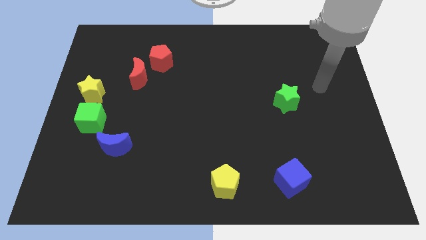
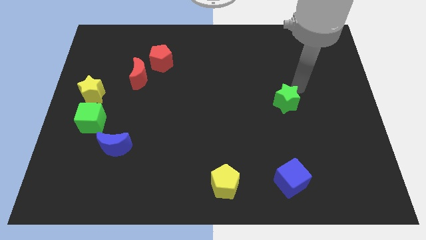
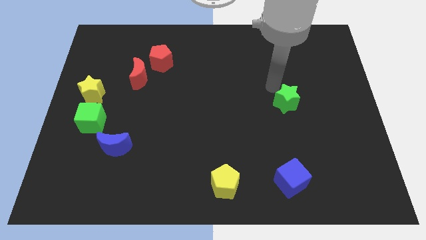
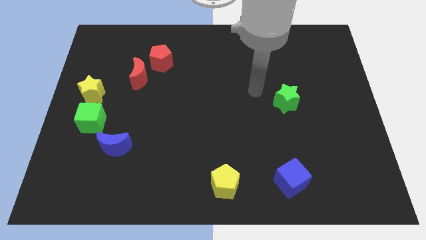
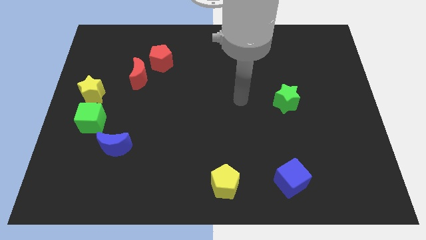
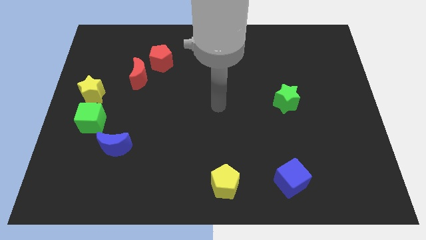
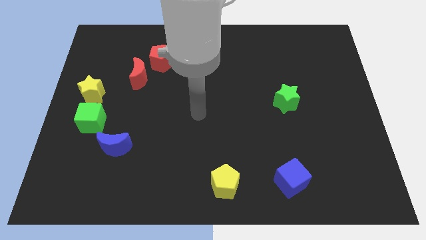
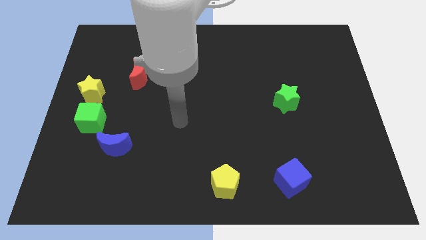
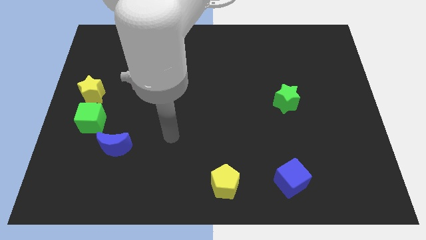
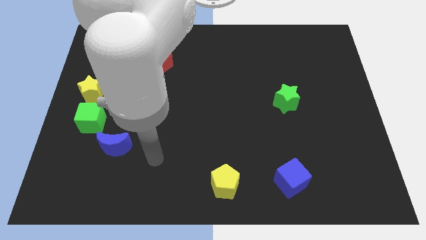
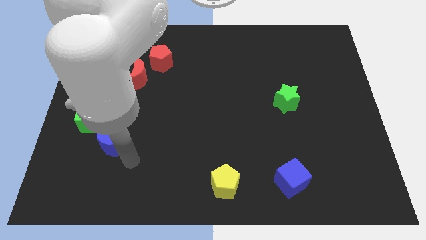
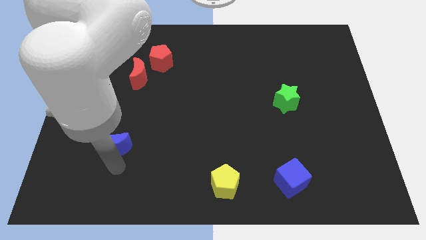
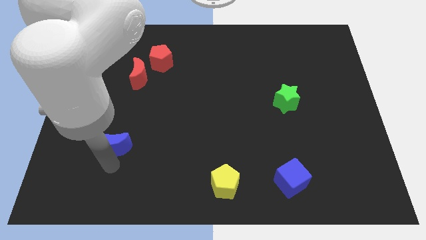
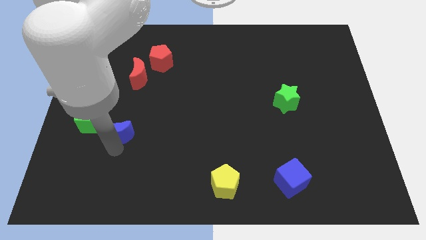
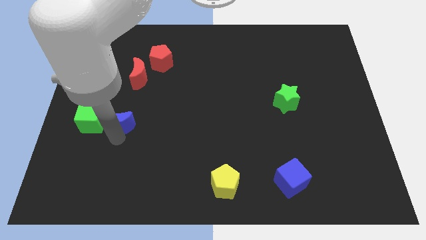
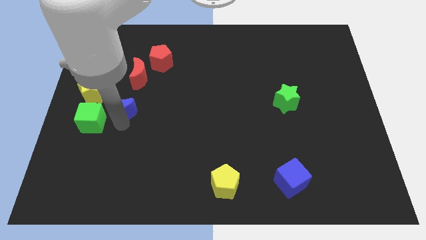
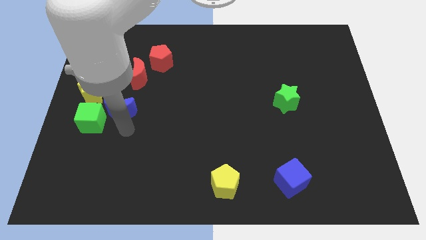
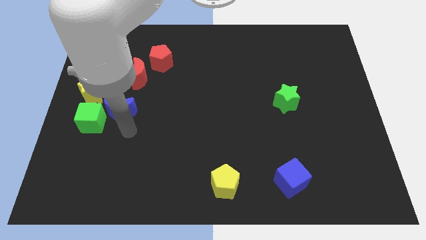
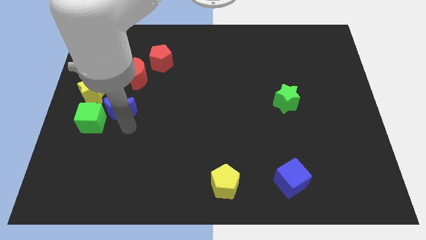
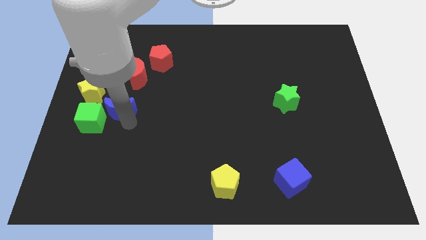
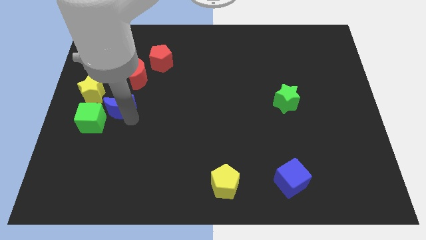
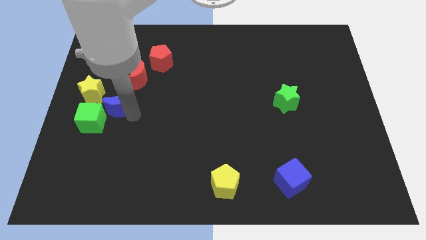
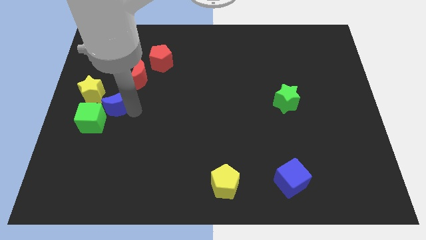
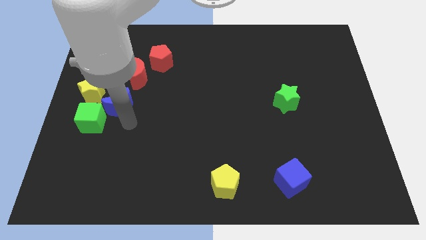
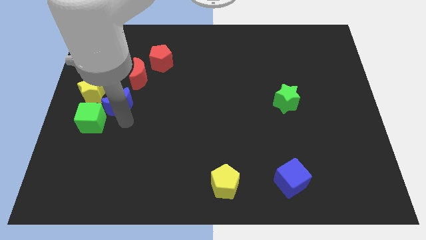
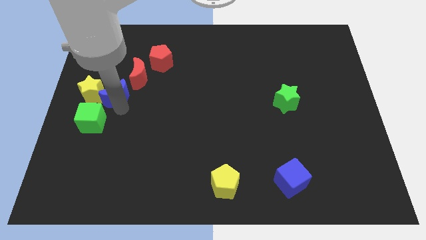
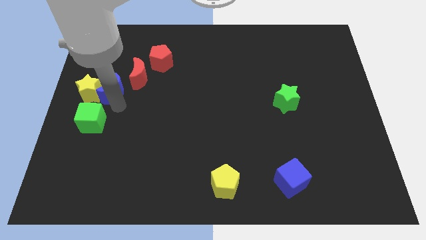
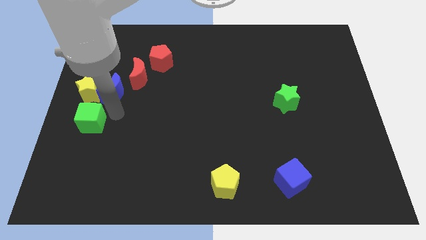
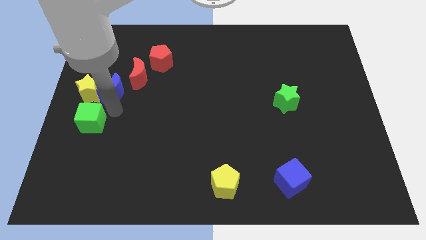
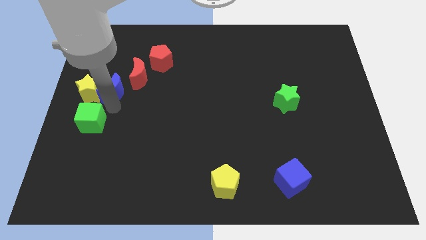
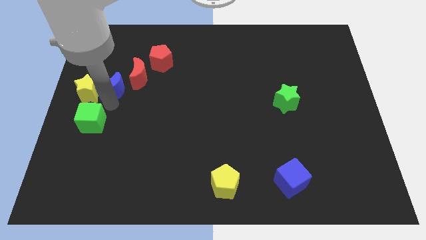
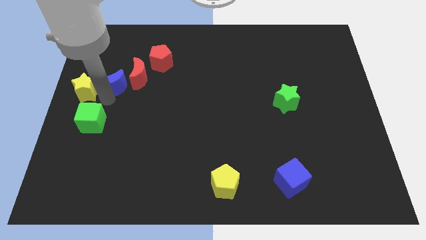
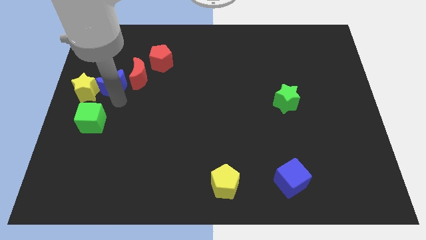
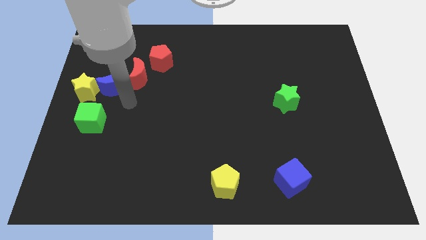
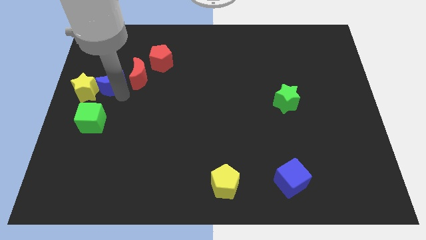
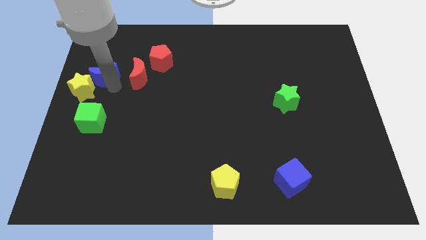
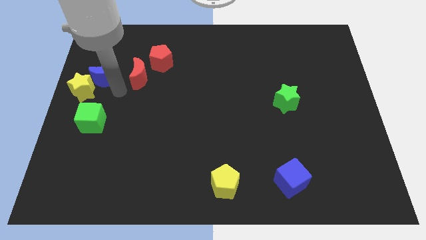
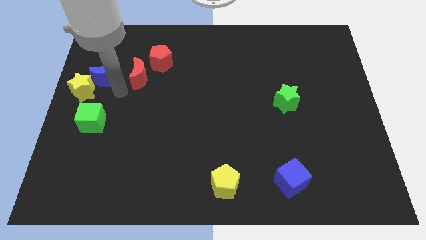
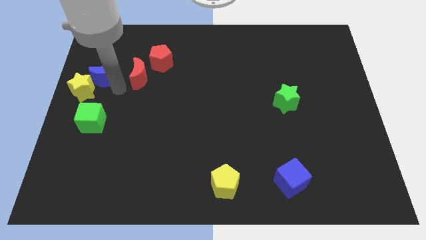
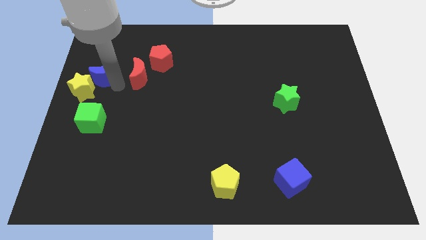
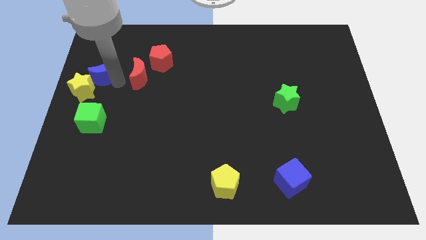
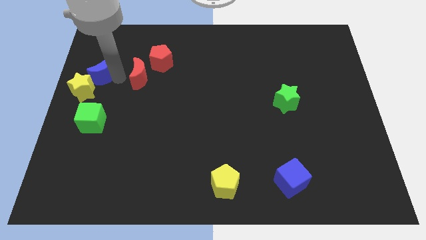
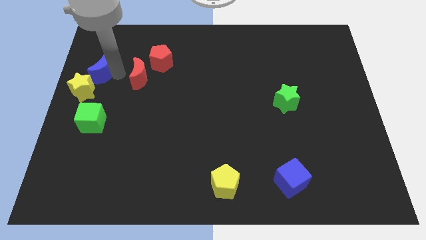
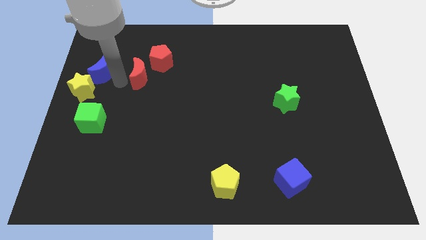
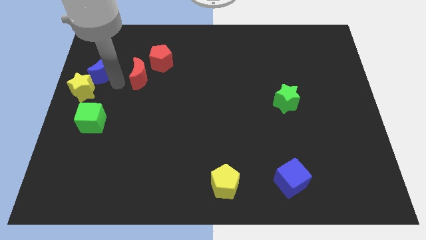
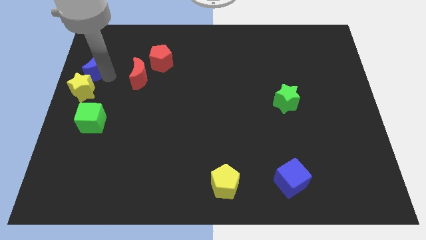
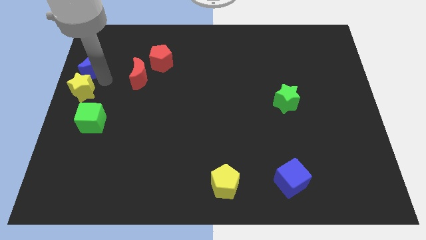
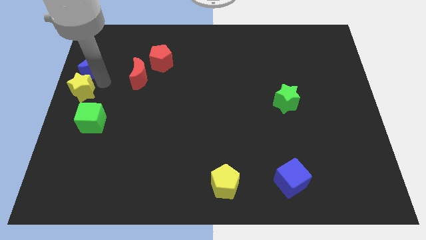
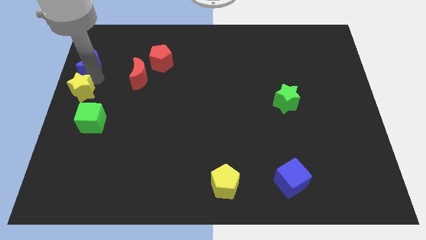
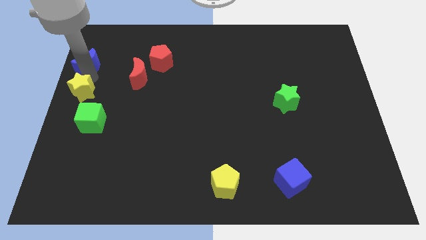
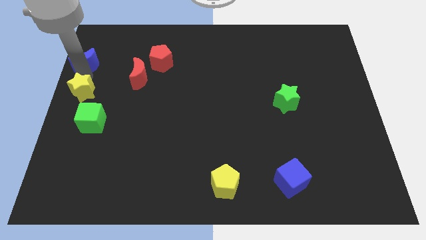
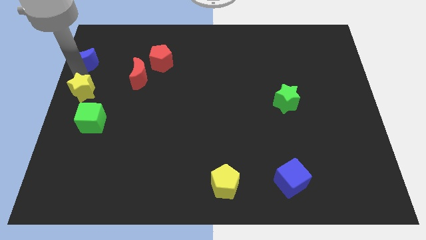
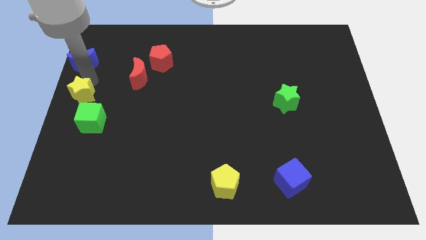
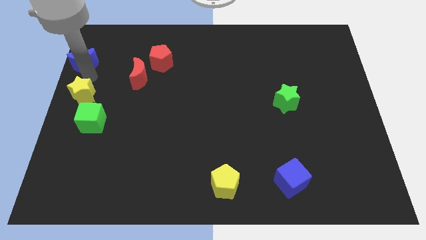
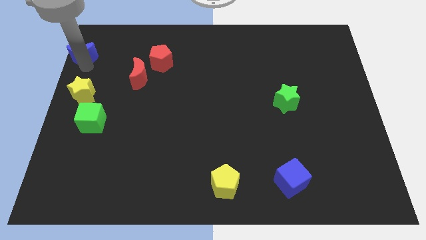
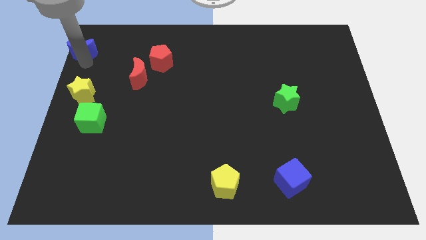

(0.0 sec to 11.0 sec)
push the blue moon to the upper left corner

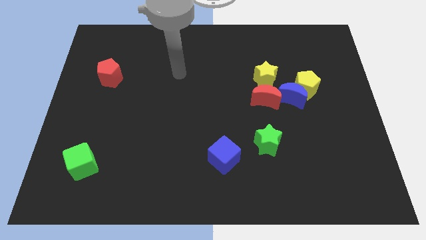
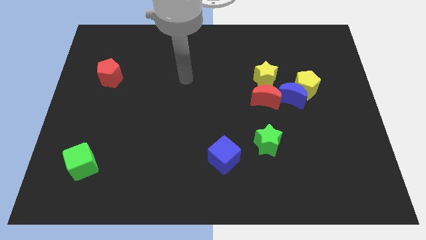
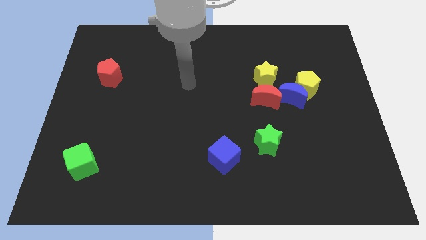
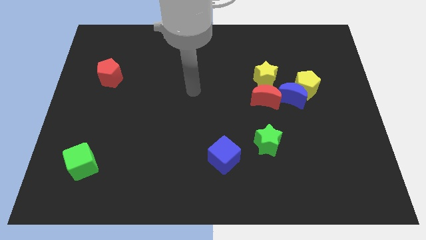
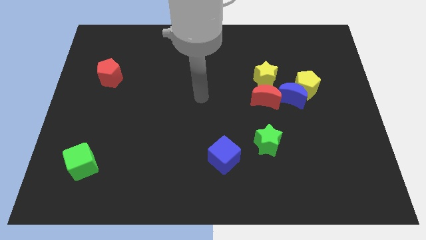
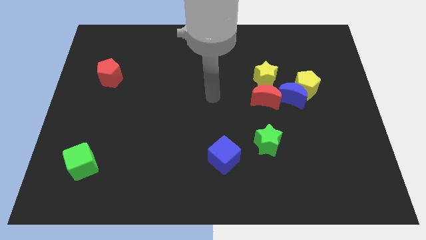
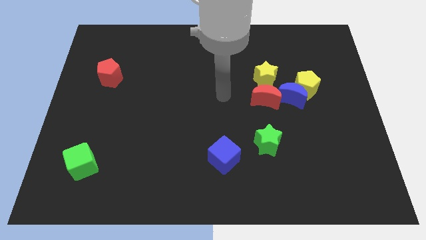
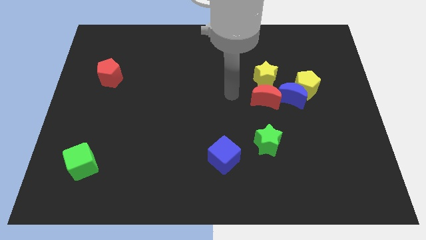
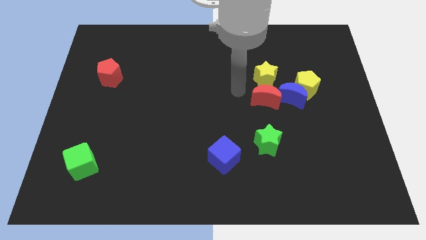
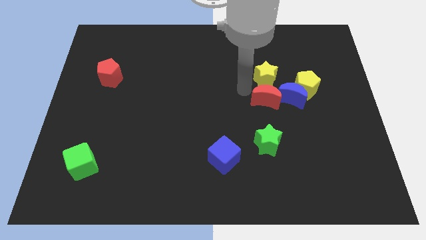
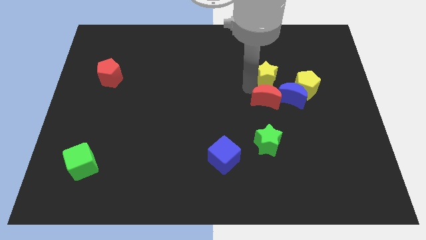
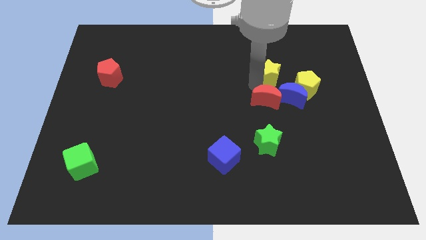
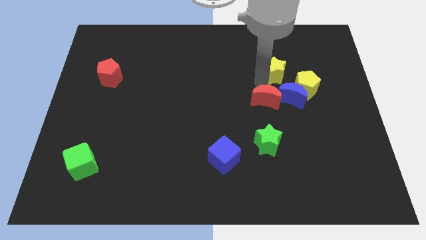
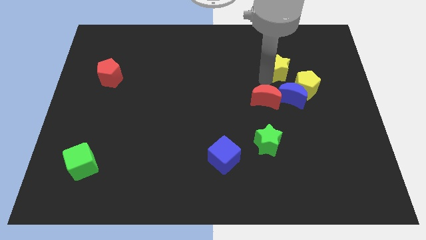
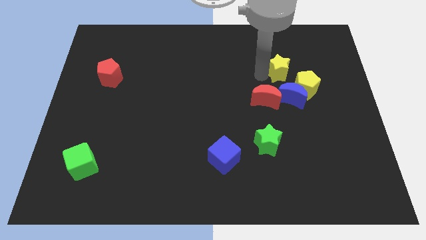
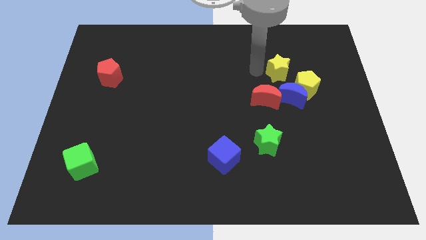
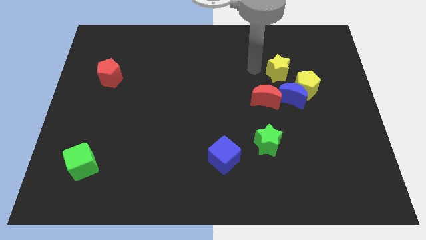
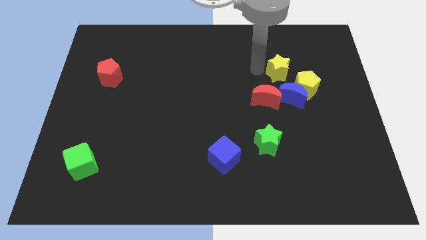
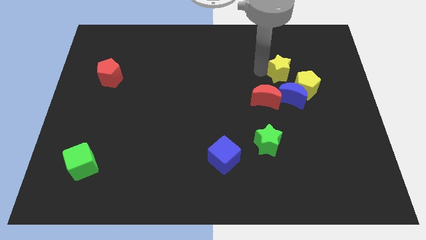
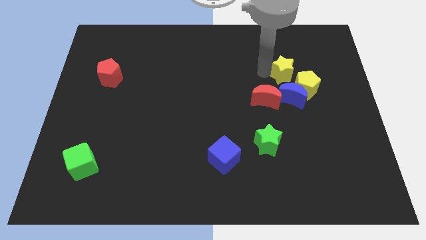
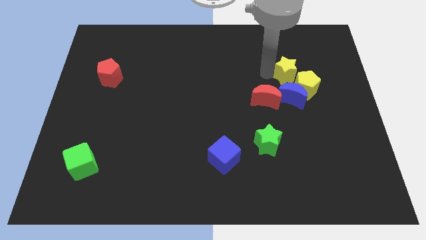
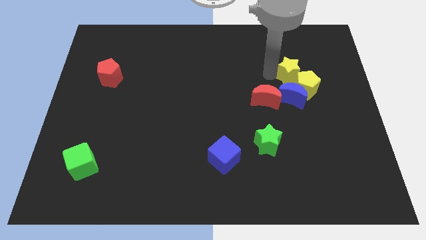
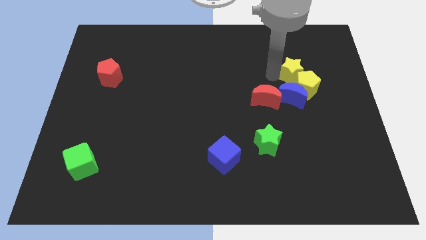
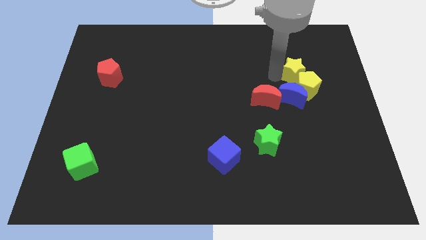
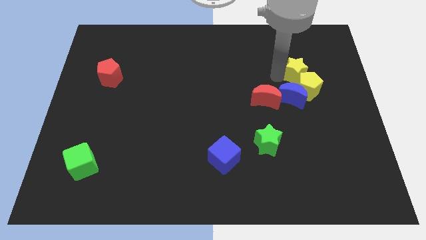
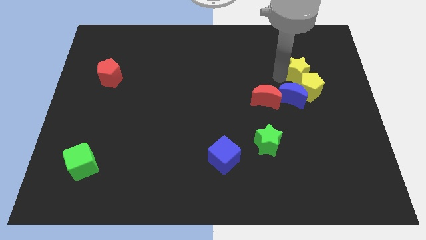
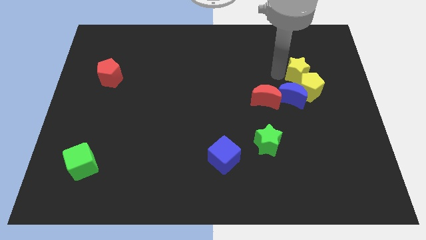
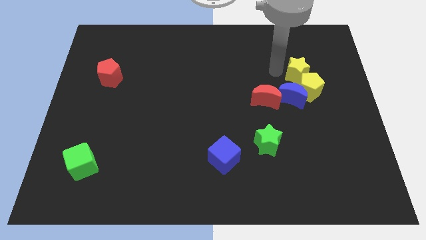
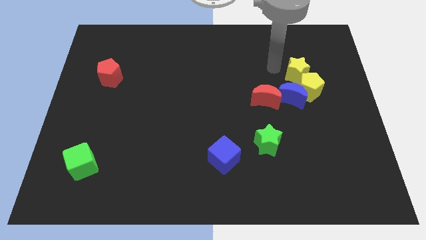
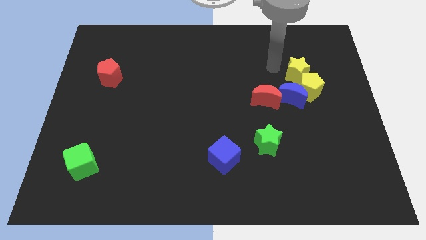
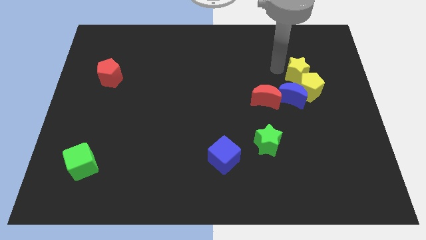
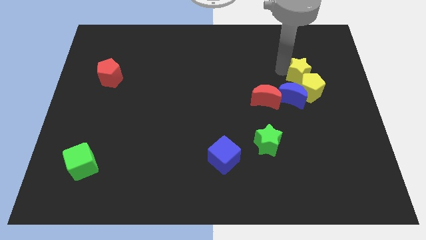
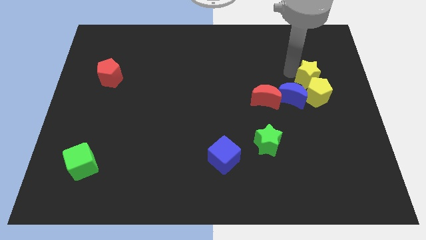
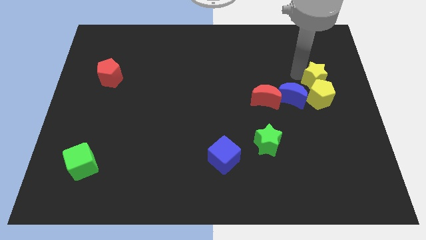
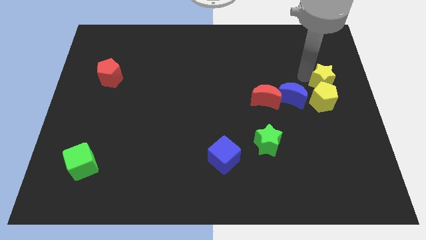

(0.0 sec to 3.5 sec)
slide the yellow star to the right side of the board
